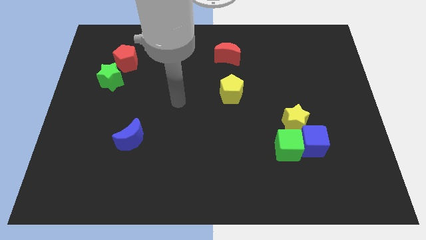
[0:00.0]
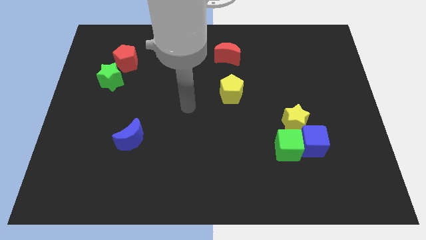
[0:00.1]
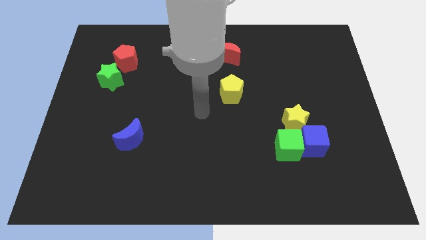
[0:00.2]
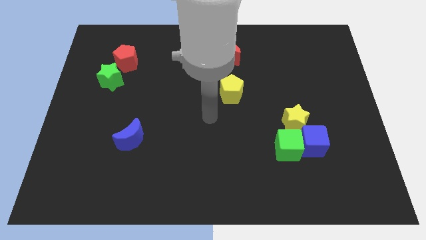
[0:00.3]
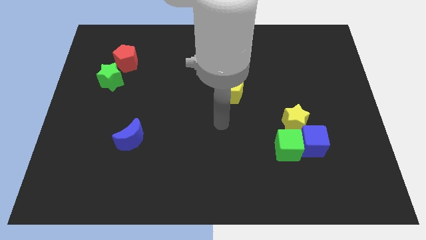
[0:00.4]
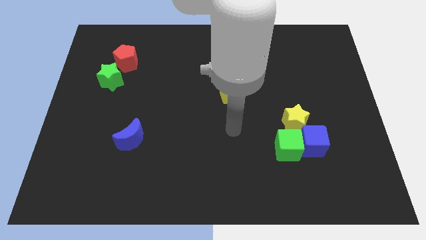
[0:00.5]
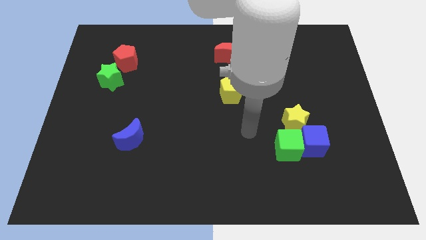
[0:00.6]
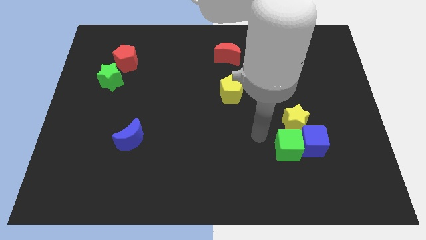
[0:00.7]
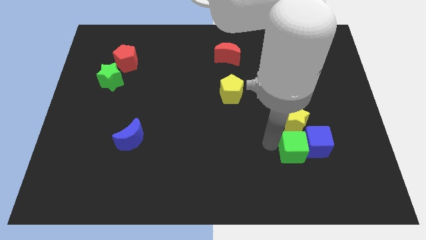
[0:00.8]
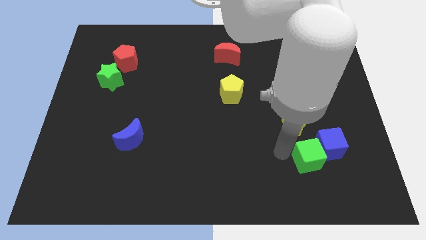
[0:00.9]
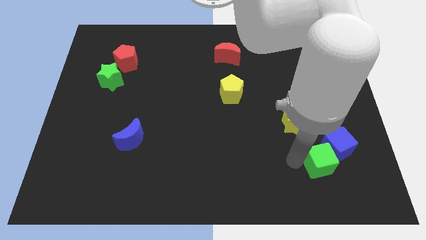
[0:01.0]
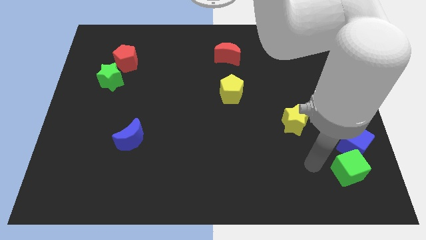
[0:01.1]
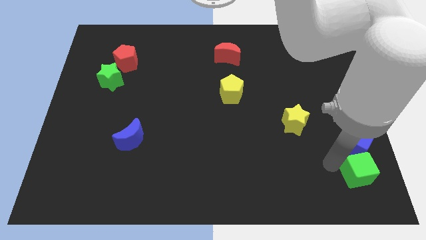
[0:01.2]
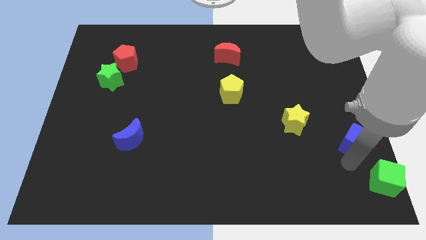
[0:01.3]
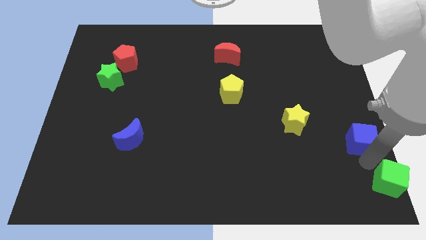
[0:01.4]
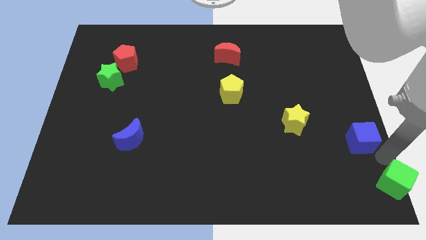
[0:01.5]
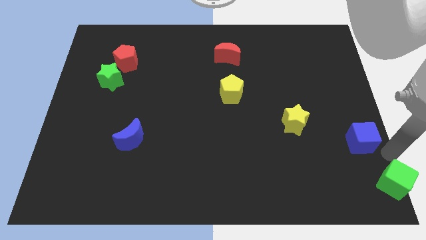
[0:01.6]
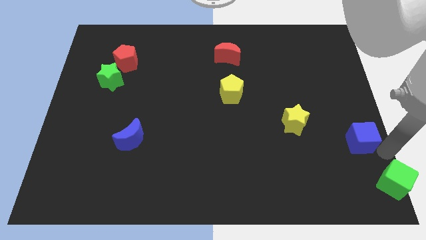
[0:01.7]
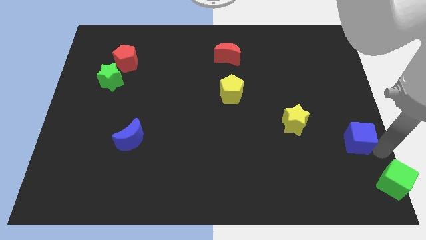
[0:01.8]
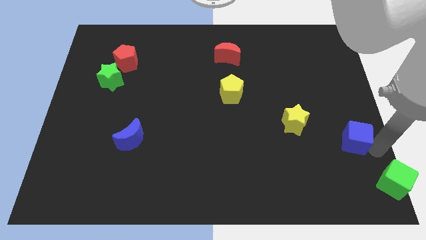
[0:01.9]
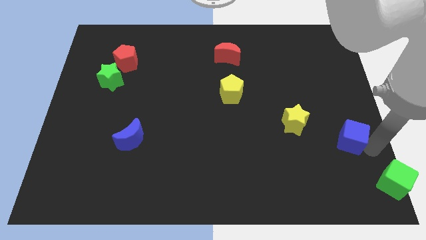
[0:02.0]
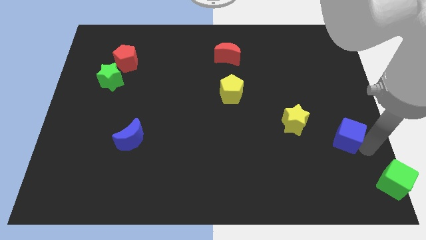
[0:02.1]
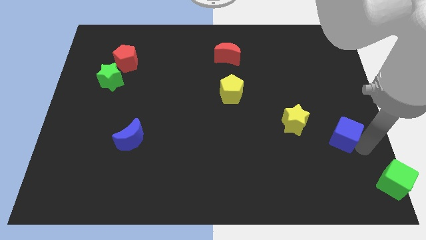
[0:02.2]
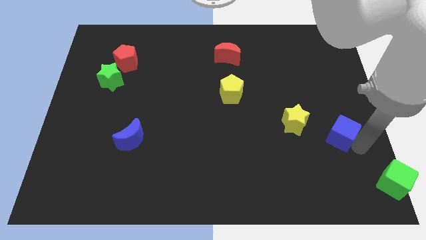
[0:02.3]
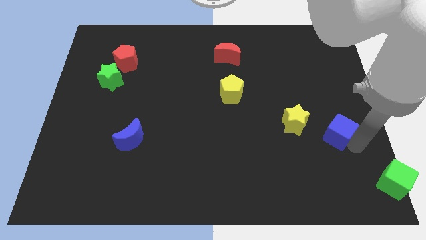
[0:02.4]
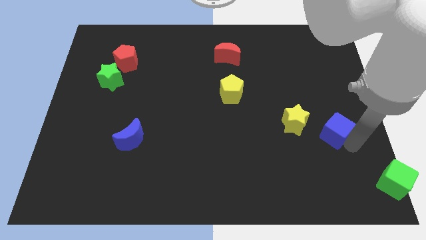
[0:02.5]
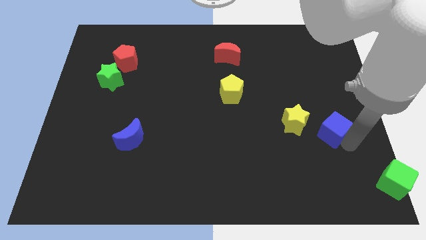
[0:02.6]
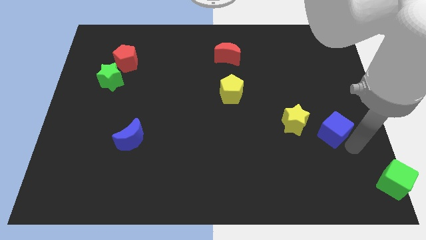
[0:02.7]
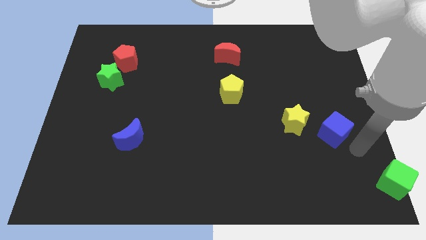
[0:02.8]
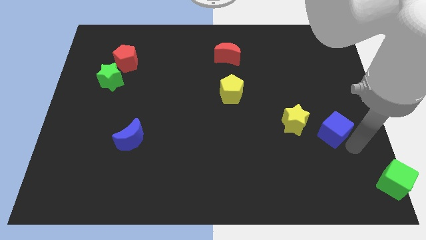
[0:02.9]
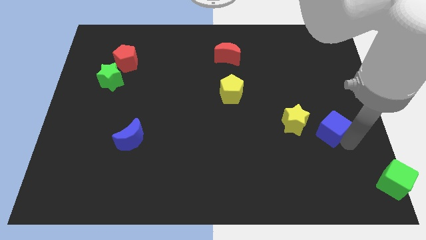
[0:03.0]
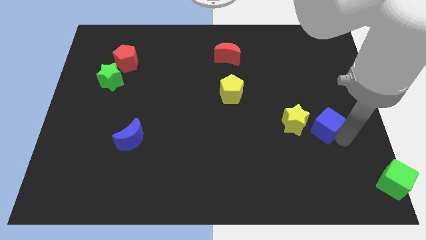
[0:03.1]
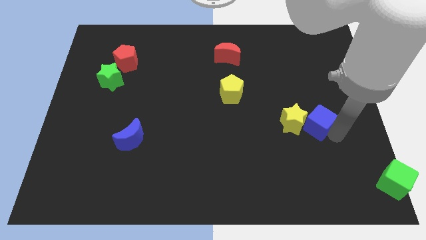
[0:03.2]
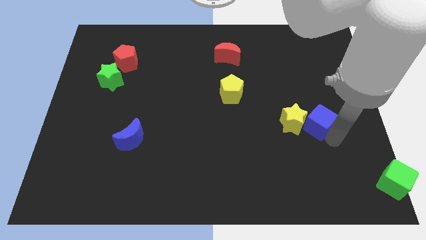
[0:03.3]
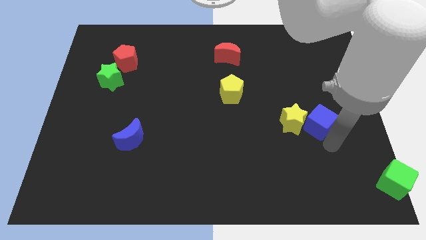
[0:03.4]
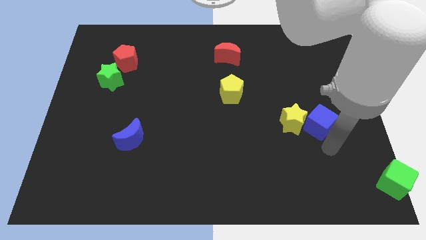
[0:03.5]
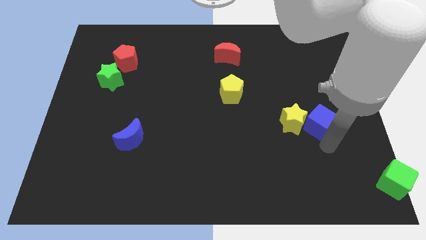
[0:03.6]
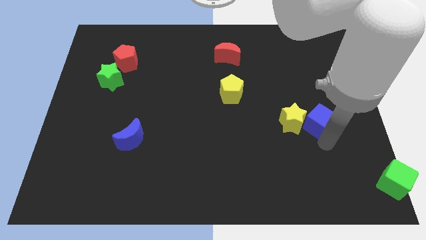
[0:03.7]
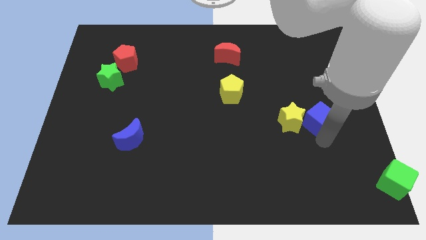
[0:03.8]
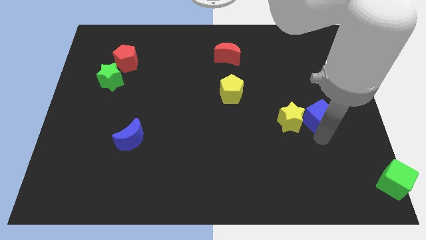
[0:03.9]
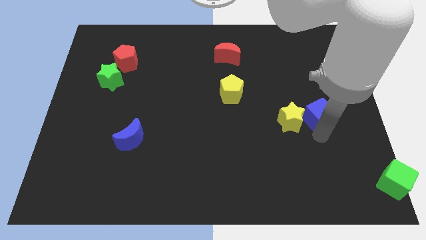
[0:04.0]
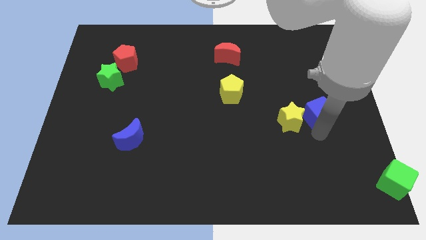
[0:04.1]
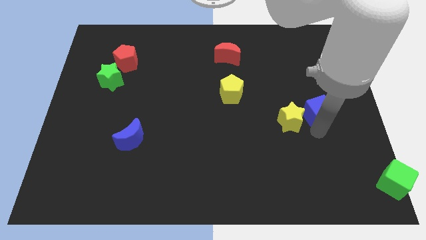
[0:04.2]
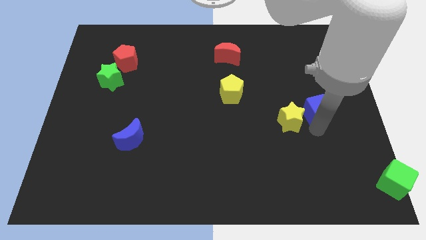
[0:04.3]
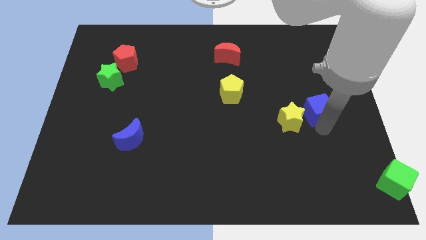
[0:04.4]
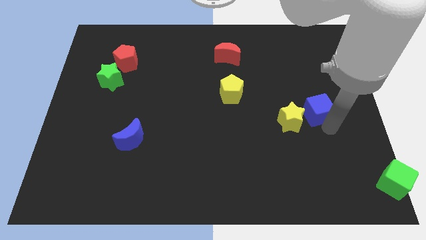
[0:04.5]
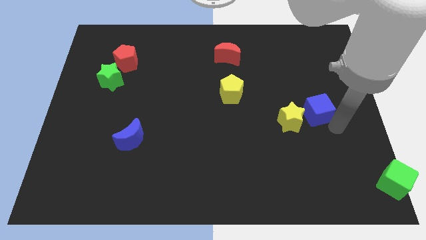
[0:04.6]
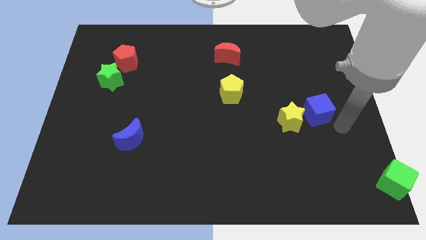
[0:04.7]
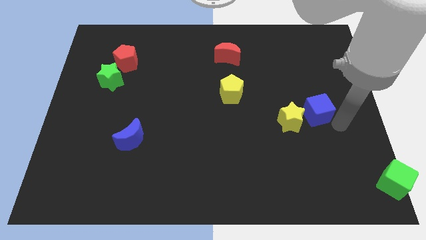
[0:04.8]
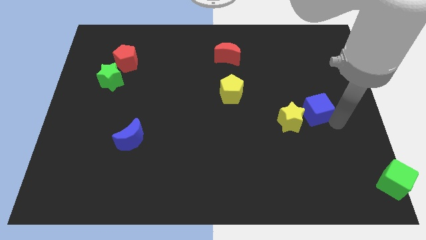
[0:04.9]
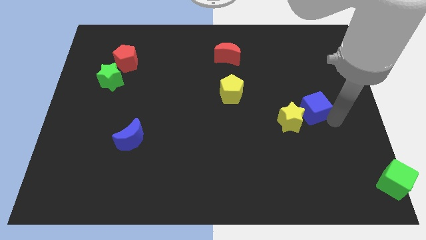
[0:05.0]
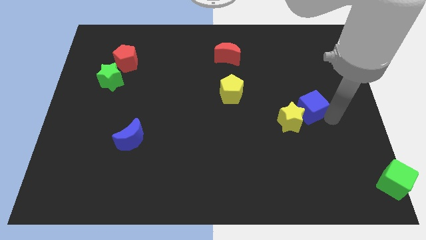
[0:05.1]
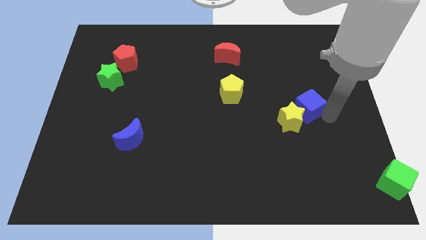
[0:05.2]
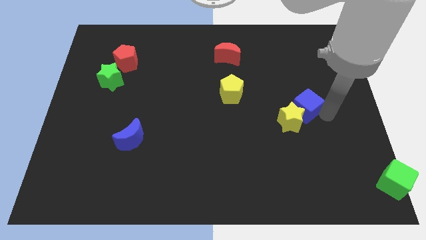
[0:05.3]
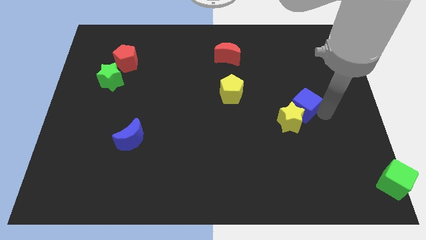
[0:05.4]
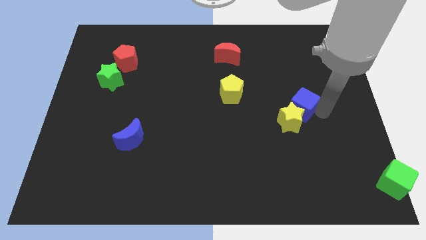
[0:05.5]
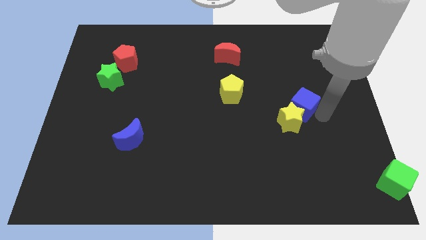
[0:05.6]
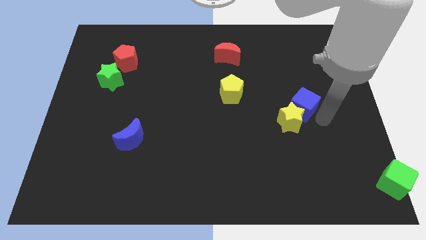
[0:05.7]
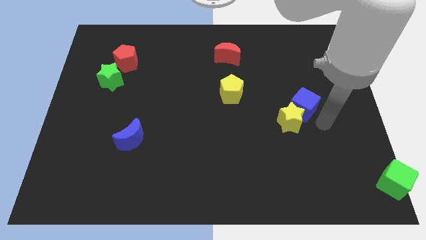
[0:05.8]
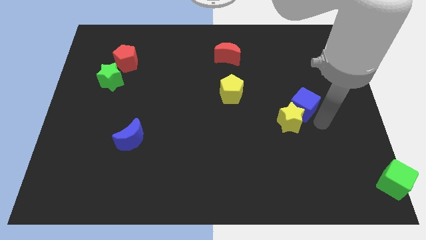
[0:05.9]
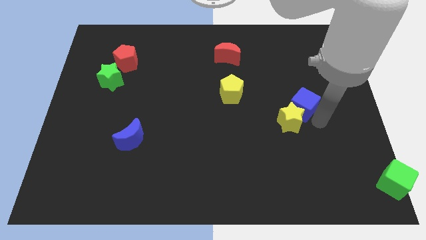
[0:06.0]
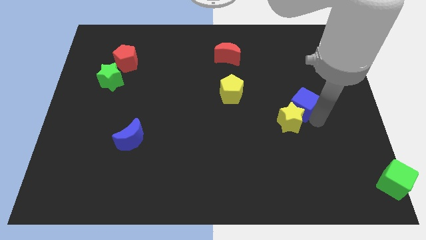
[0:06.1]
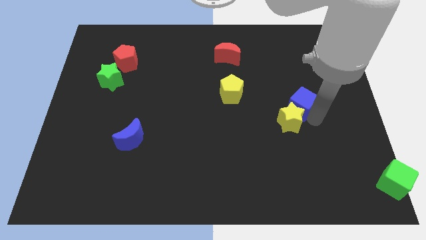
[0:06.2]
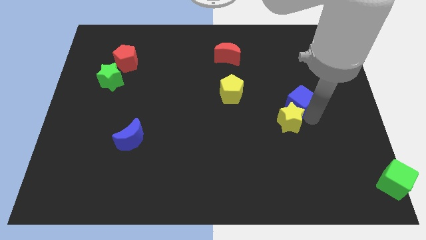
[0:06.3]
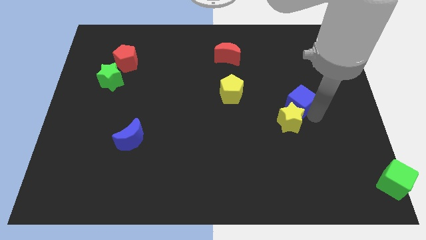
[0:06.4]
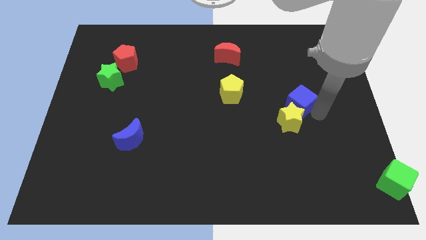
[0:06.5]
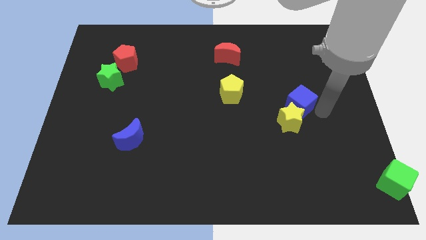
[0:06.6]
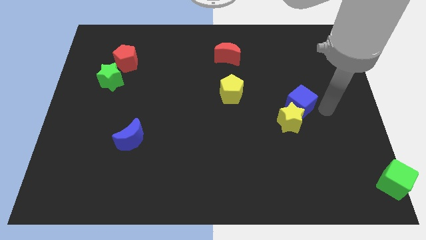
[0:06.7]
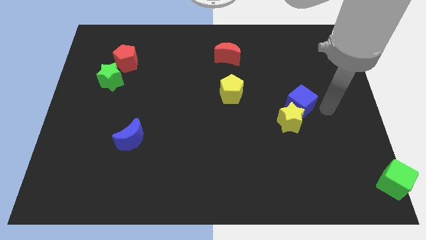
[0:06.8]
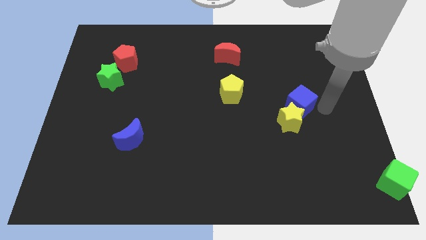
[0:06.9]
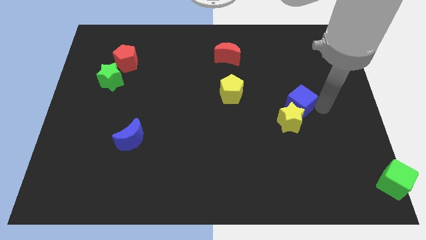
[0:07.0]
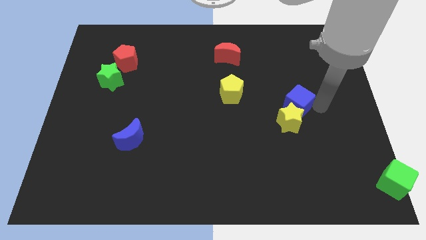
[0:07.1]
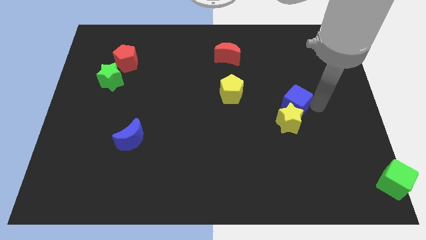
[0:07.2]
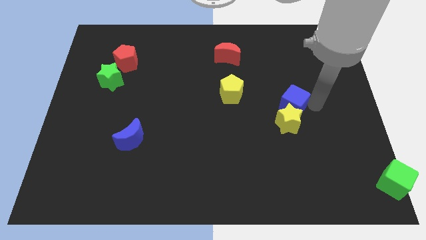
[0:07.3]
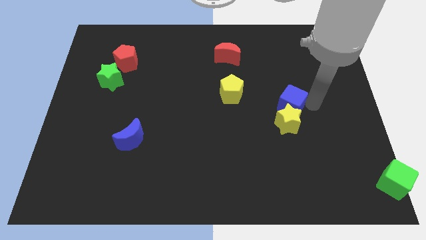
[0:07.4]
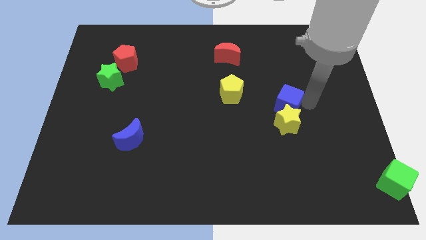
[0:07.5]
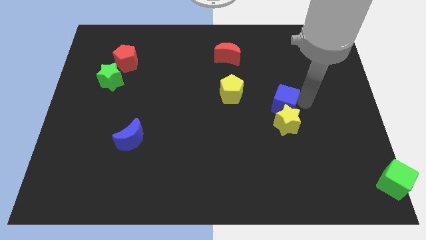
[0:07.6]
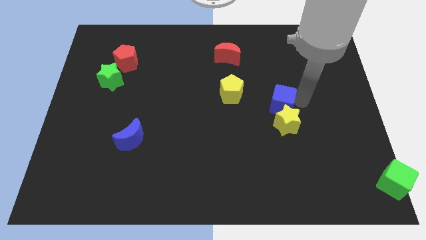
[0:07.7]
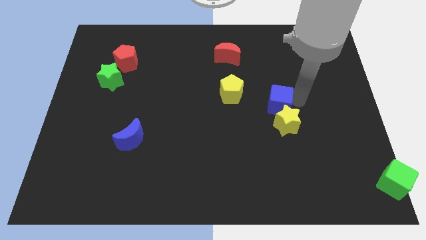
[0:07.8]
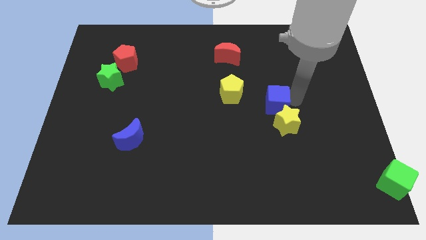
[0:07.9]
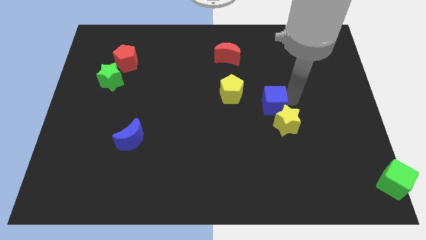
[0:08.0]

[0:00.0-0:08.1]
move the blue cube to the bottom right of the yellow pentagon
